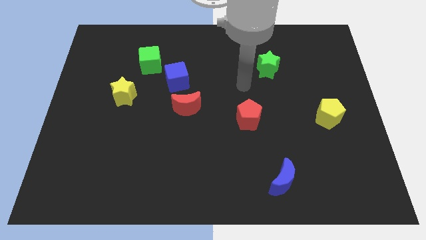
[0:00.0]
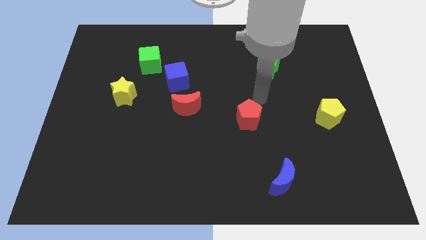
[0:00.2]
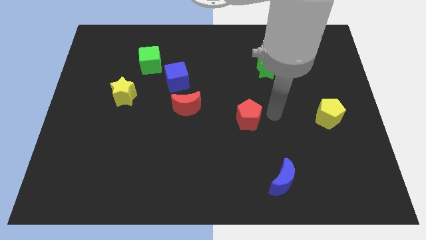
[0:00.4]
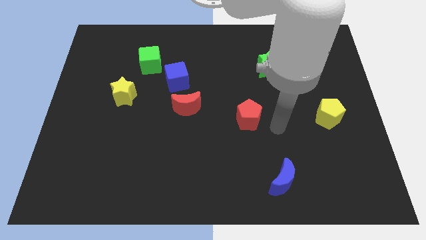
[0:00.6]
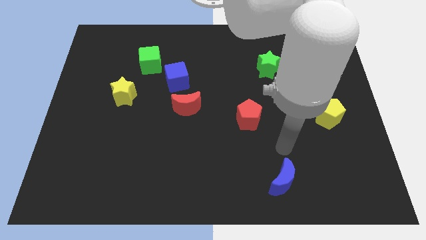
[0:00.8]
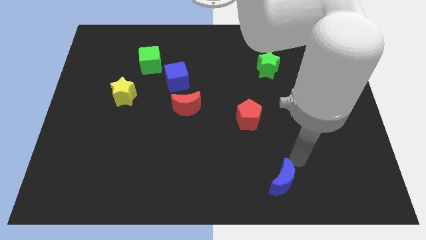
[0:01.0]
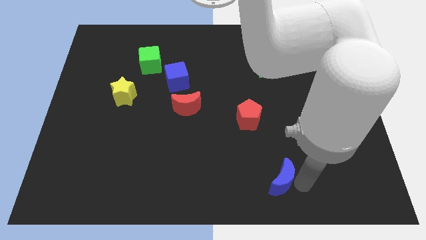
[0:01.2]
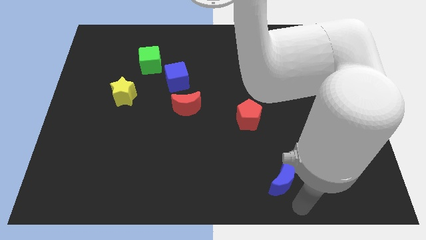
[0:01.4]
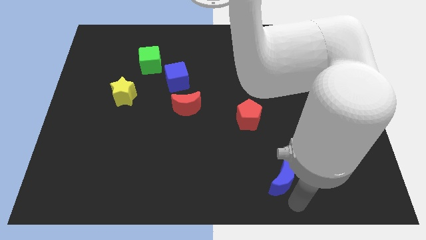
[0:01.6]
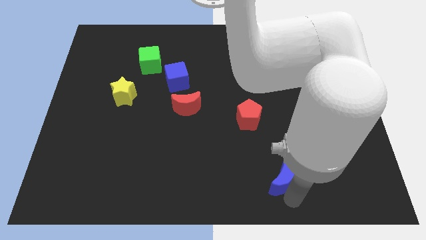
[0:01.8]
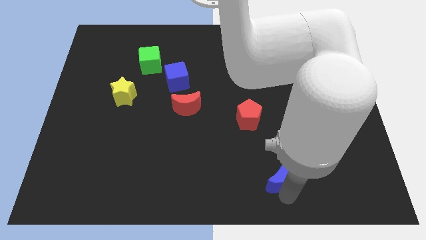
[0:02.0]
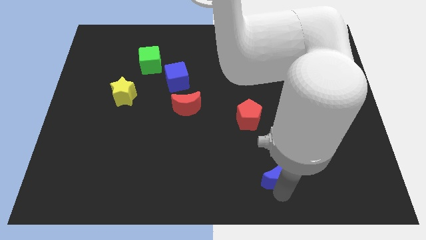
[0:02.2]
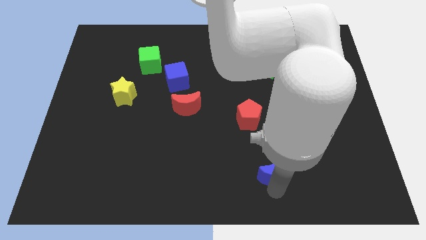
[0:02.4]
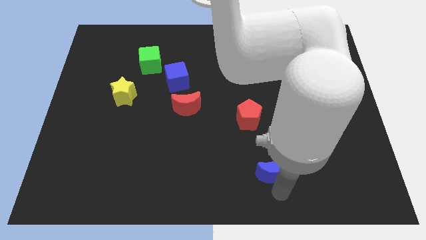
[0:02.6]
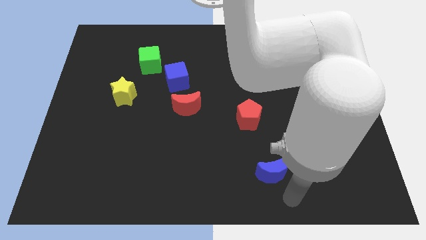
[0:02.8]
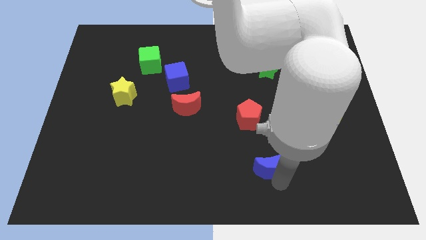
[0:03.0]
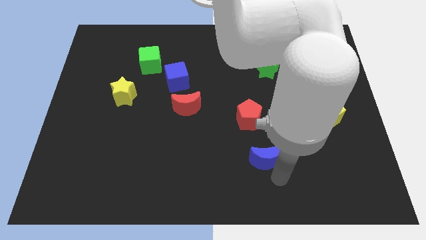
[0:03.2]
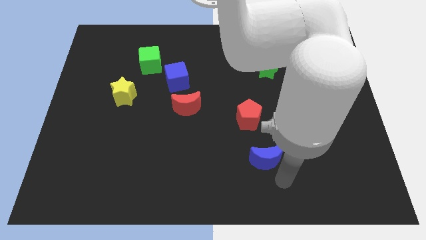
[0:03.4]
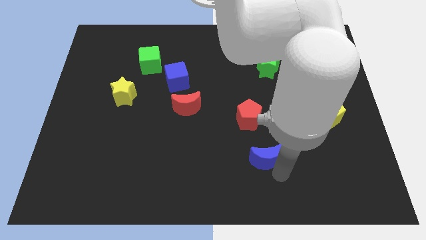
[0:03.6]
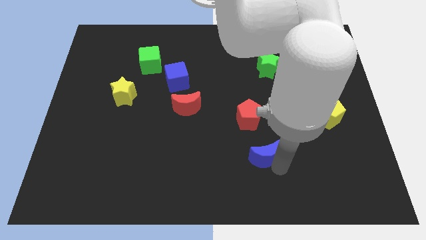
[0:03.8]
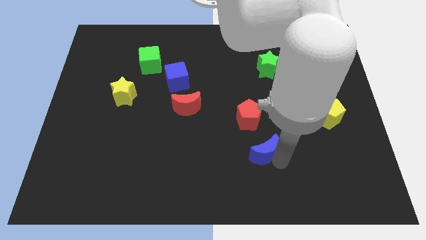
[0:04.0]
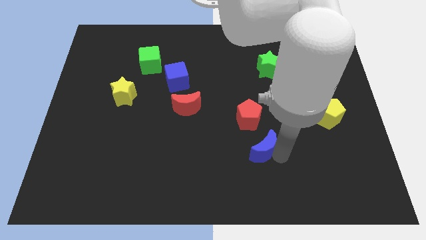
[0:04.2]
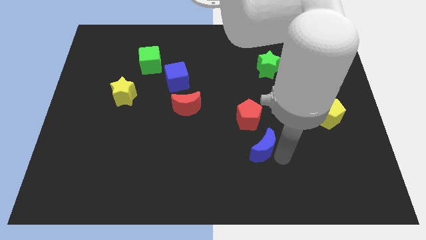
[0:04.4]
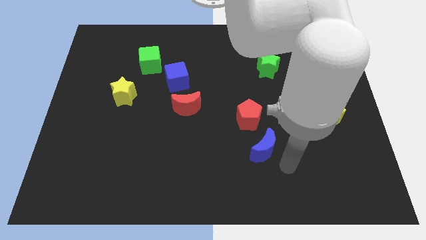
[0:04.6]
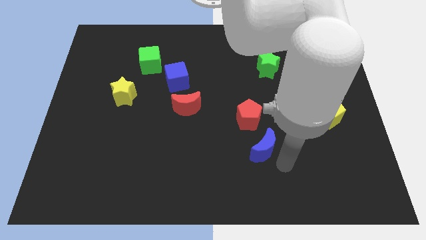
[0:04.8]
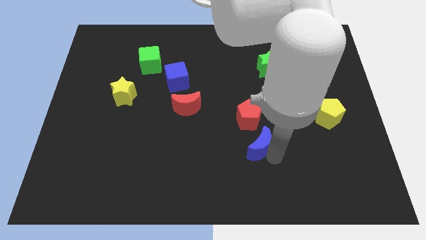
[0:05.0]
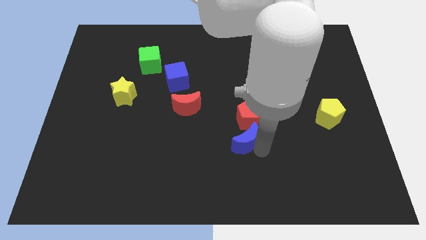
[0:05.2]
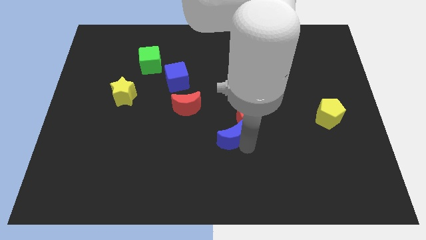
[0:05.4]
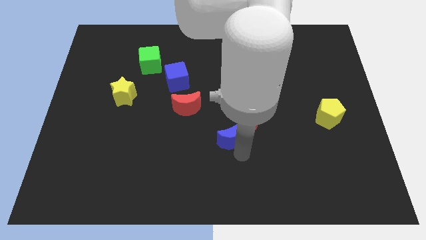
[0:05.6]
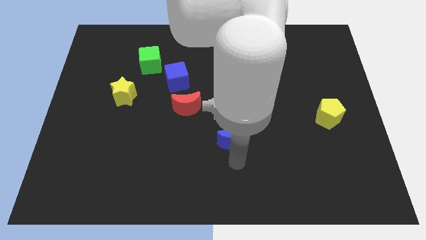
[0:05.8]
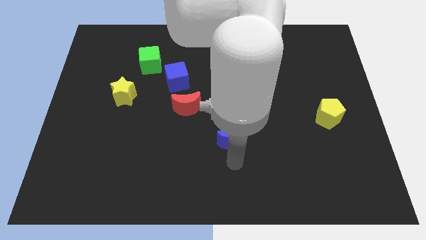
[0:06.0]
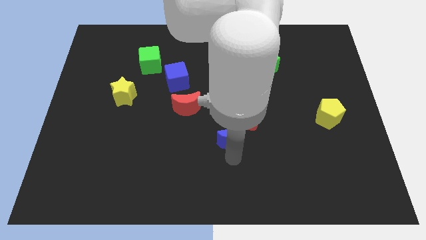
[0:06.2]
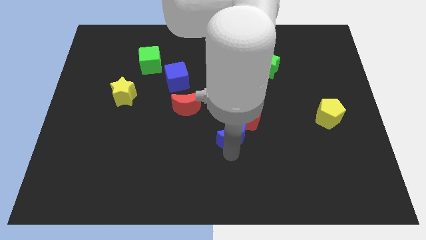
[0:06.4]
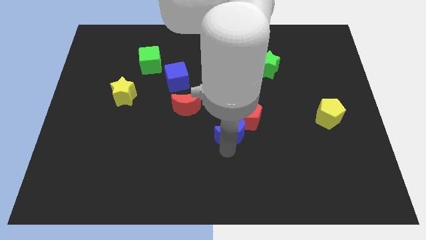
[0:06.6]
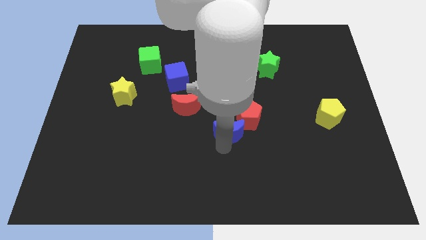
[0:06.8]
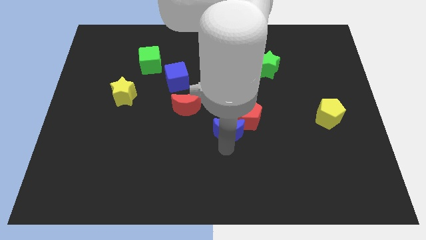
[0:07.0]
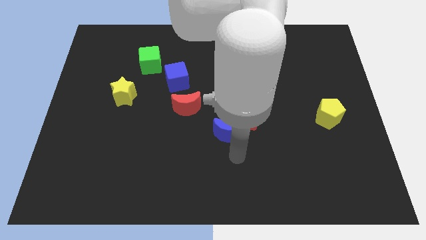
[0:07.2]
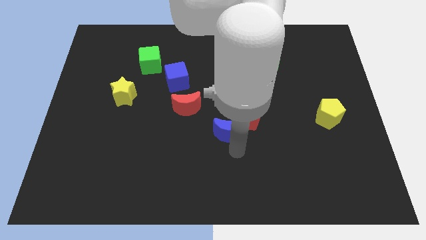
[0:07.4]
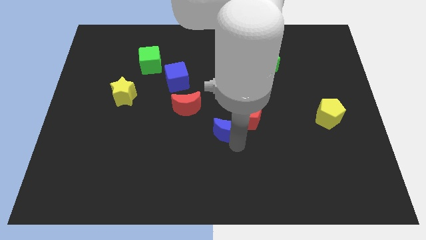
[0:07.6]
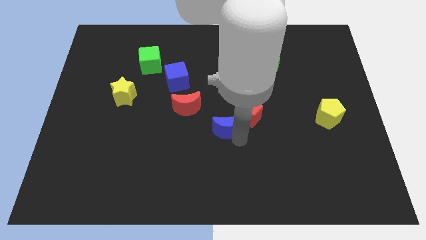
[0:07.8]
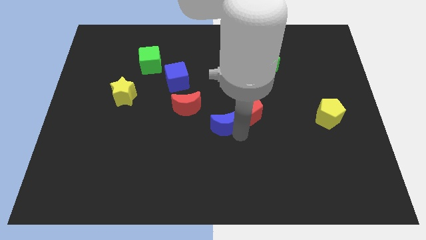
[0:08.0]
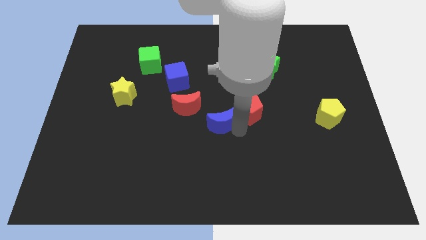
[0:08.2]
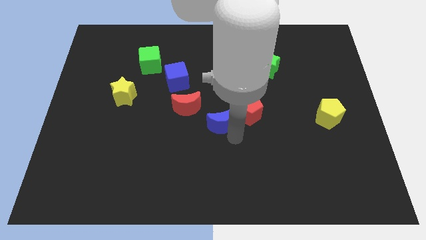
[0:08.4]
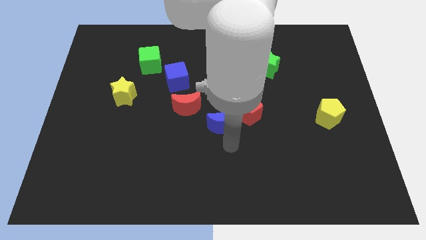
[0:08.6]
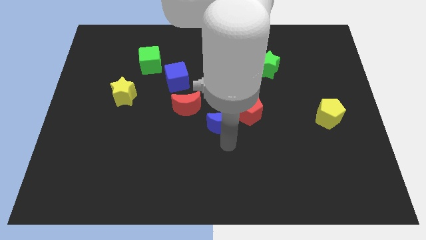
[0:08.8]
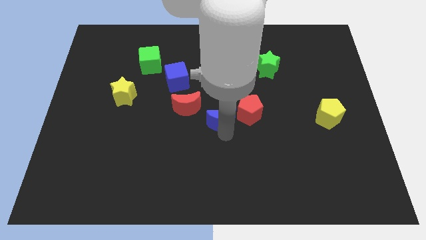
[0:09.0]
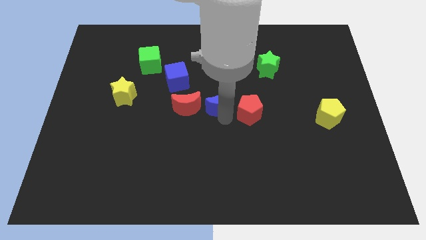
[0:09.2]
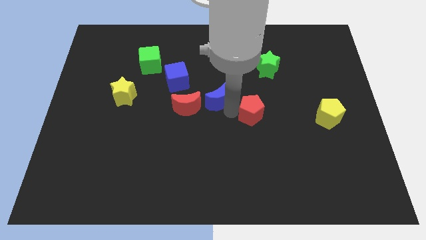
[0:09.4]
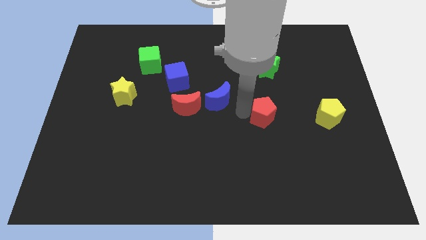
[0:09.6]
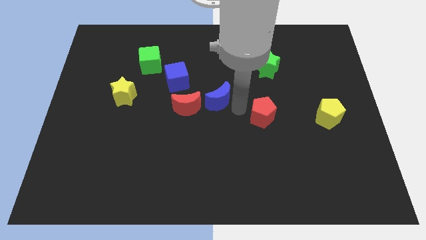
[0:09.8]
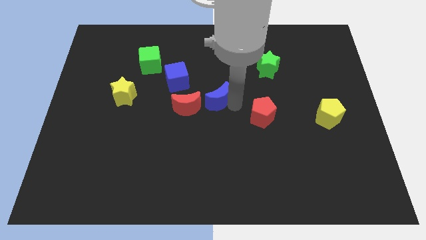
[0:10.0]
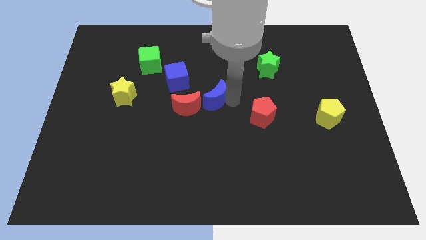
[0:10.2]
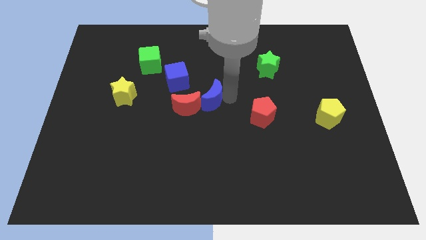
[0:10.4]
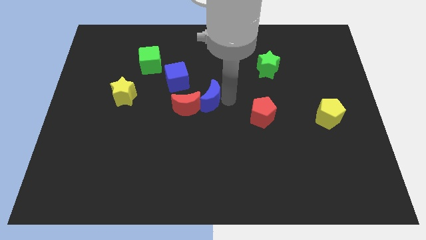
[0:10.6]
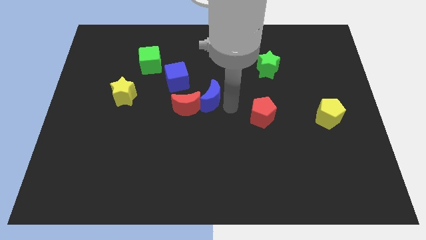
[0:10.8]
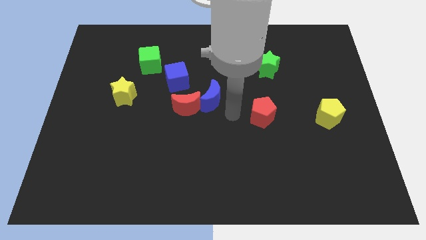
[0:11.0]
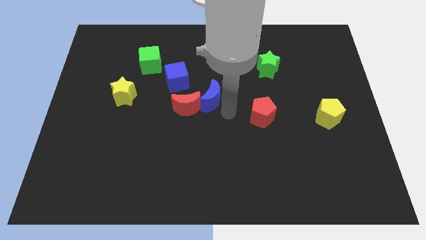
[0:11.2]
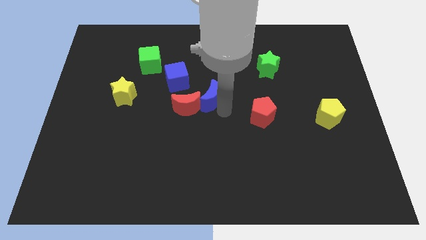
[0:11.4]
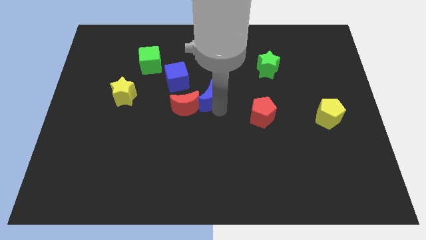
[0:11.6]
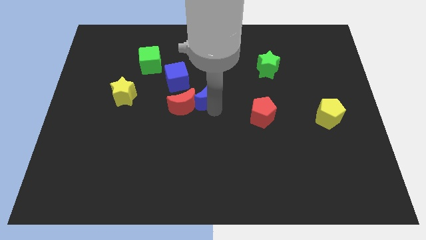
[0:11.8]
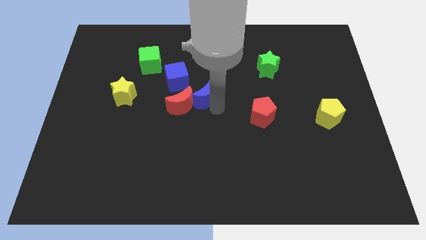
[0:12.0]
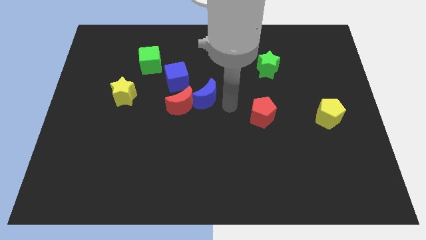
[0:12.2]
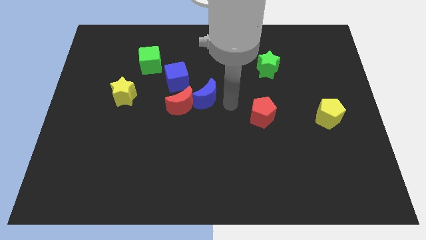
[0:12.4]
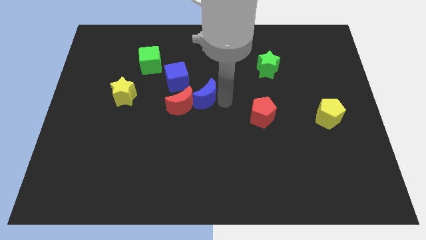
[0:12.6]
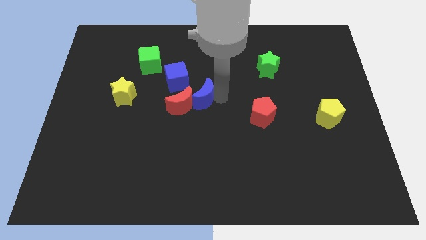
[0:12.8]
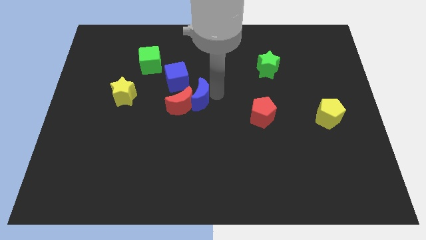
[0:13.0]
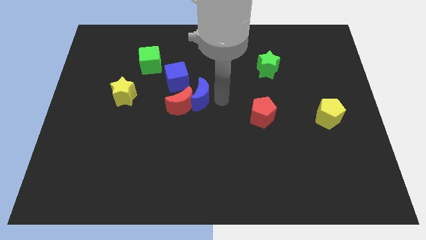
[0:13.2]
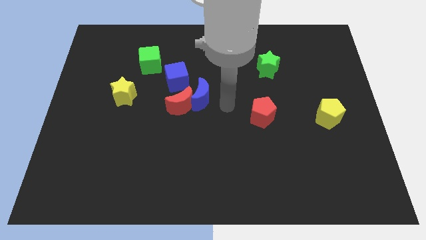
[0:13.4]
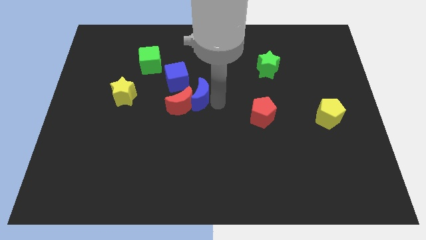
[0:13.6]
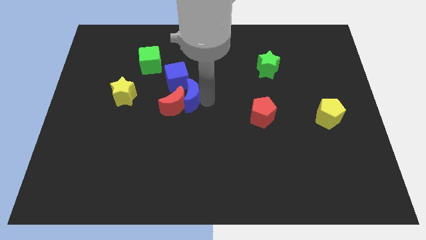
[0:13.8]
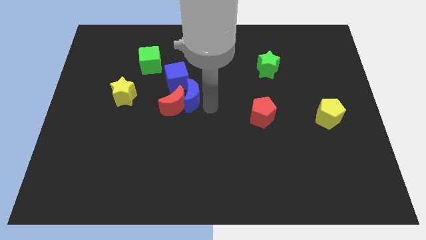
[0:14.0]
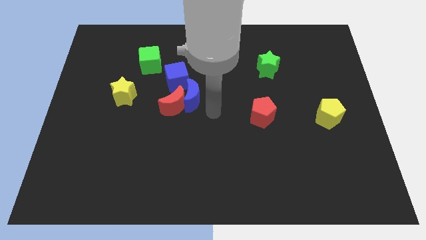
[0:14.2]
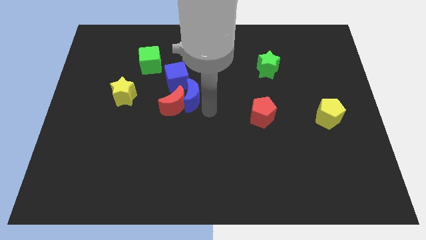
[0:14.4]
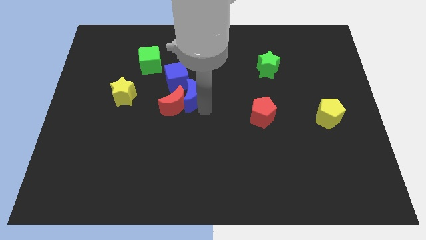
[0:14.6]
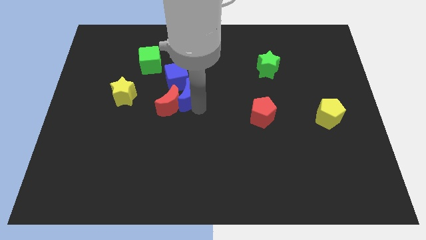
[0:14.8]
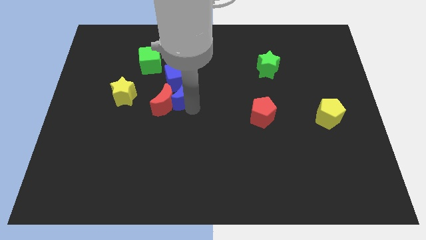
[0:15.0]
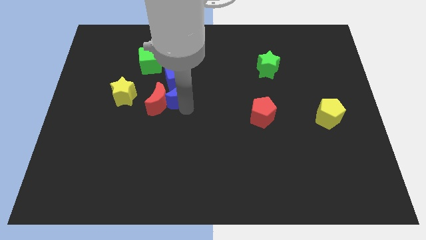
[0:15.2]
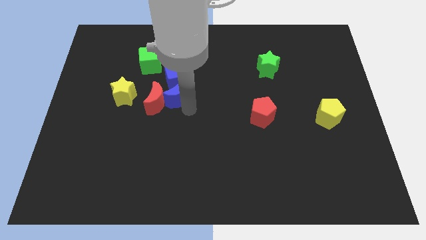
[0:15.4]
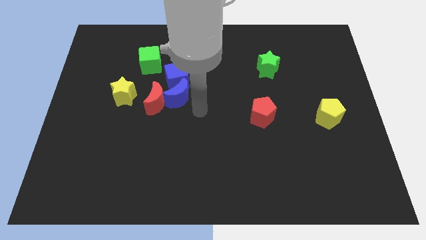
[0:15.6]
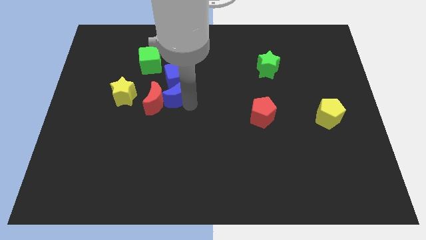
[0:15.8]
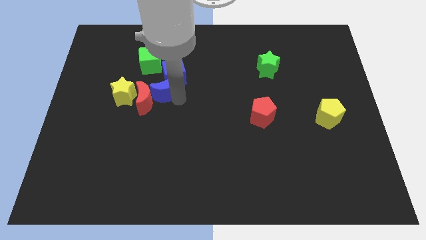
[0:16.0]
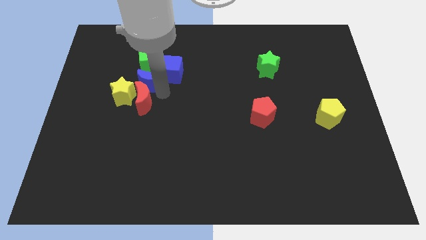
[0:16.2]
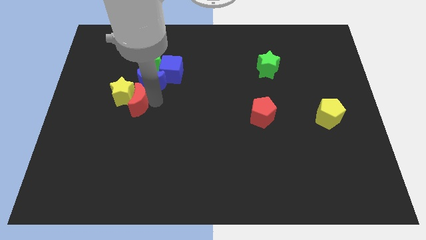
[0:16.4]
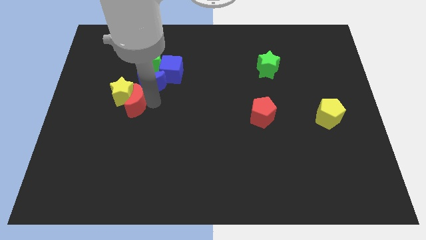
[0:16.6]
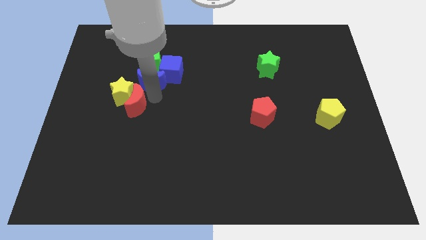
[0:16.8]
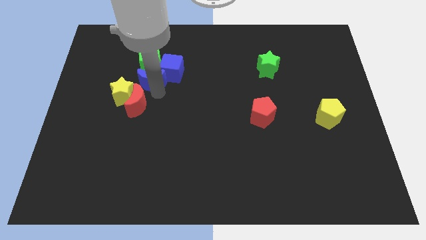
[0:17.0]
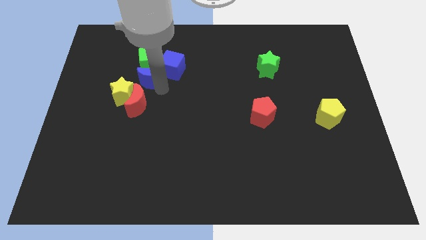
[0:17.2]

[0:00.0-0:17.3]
put the blue moon to the green cube
